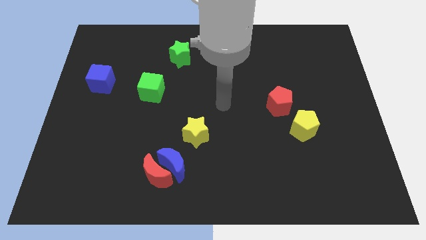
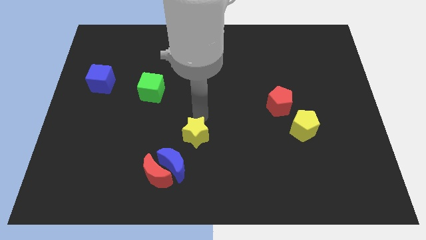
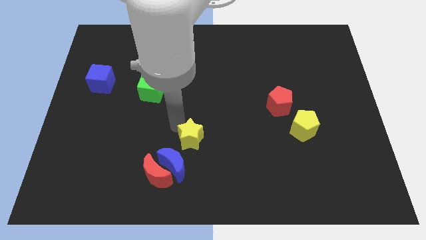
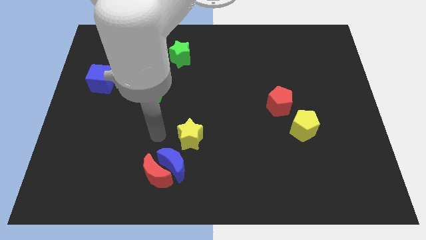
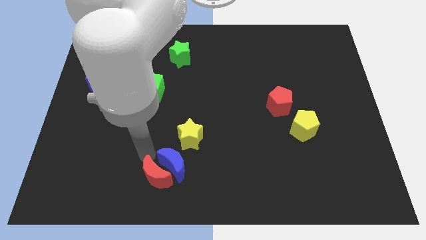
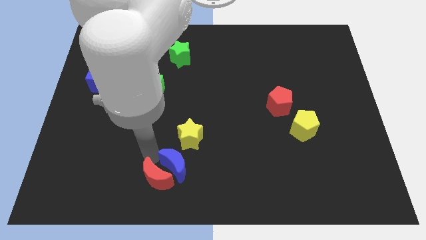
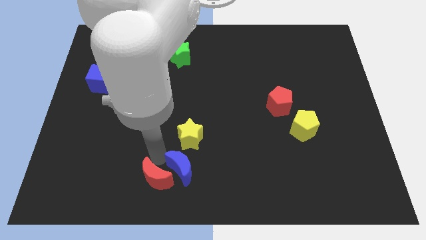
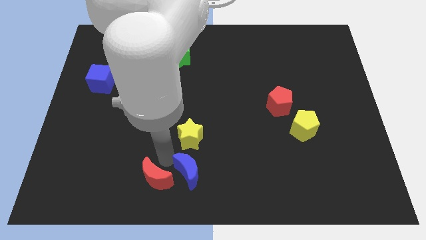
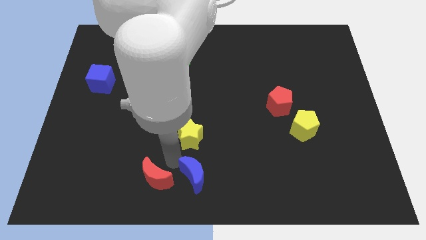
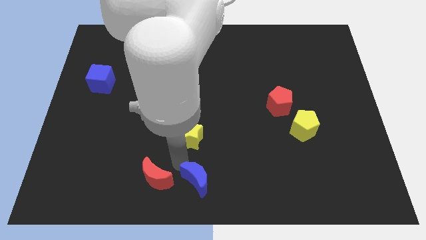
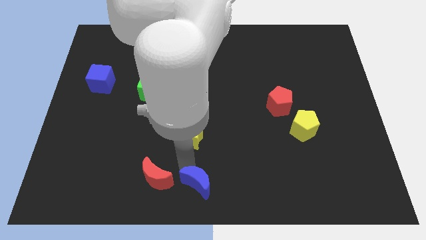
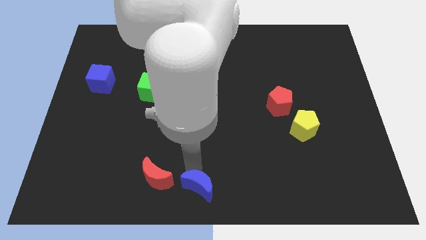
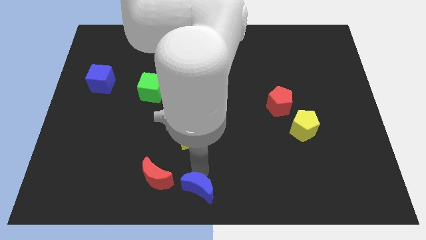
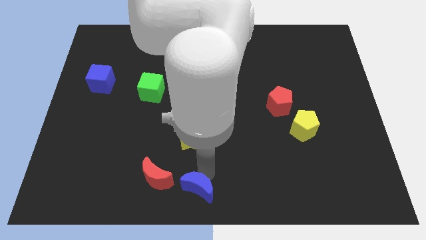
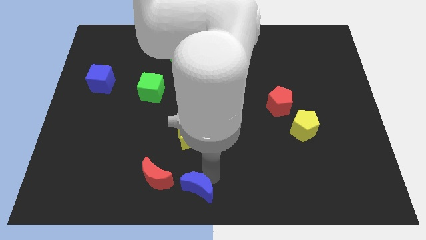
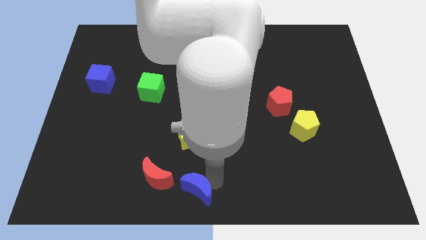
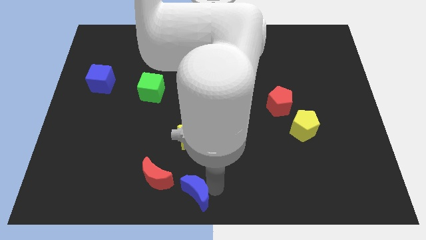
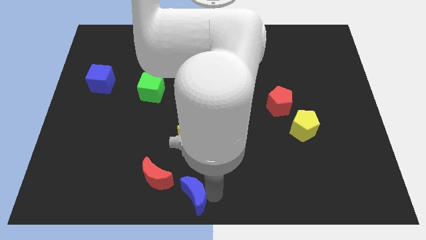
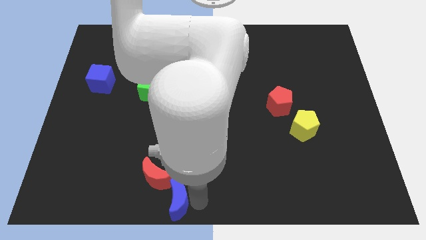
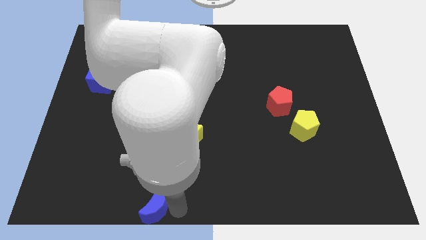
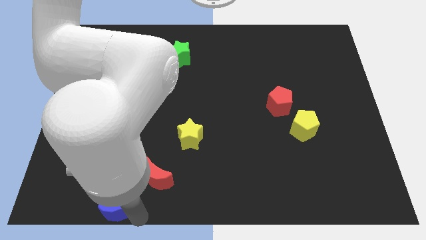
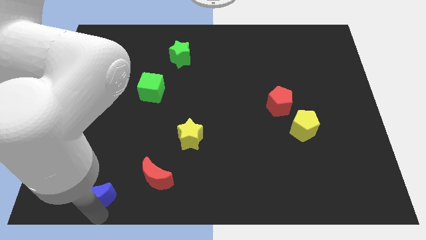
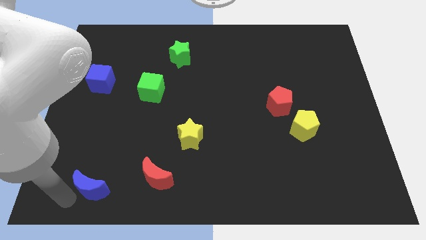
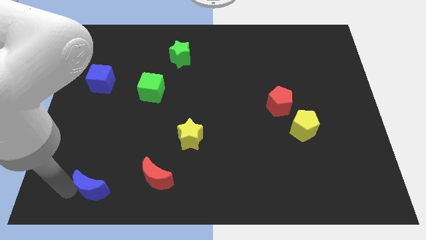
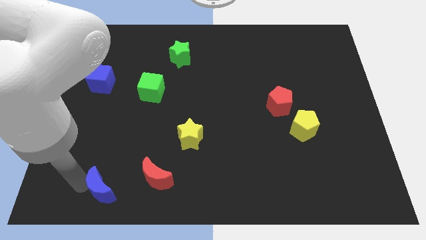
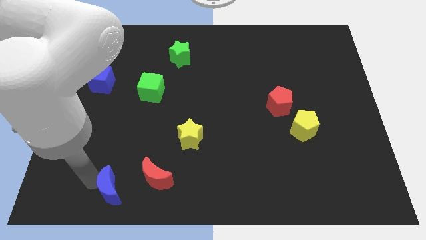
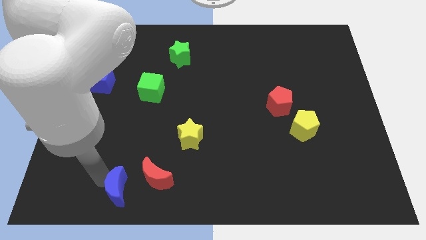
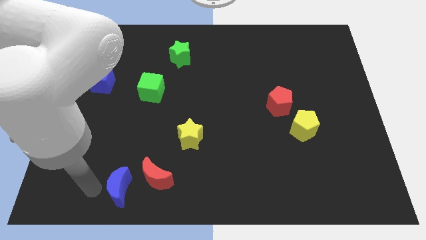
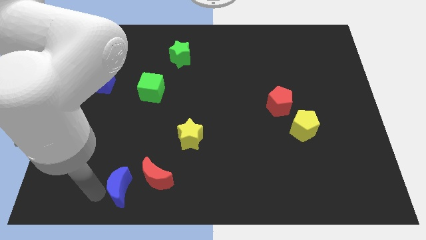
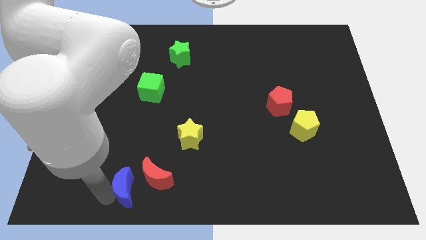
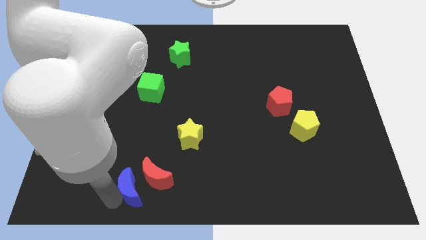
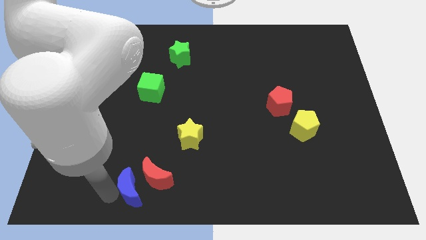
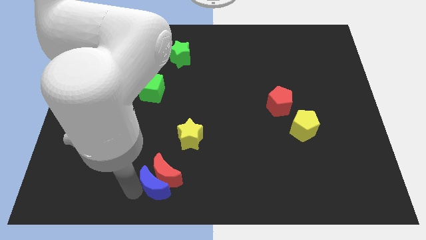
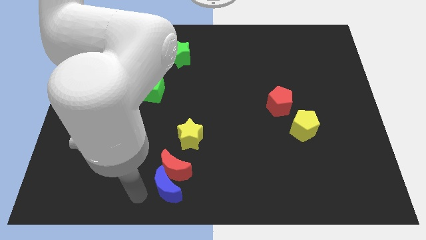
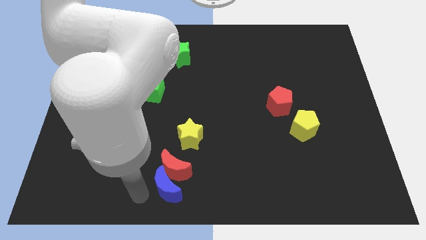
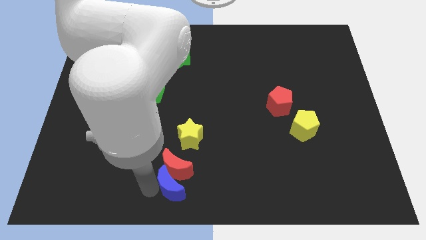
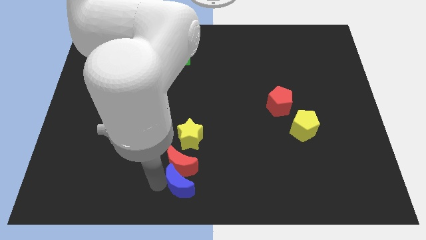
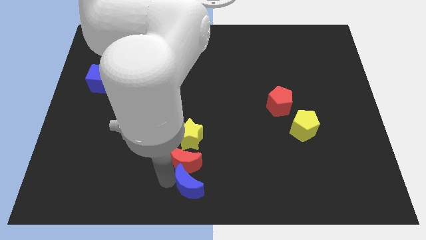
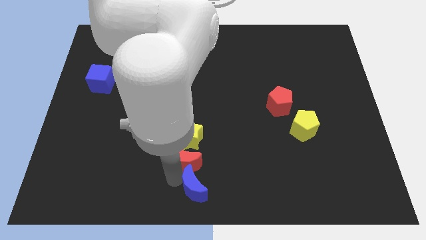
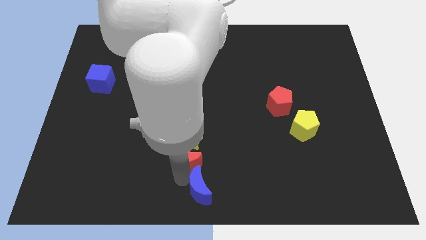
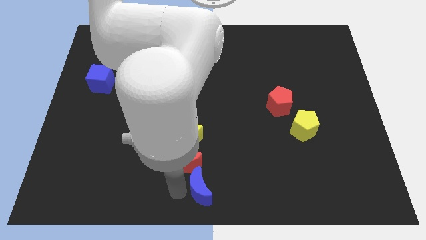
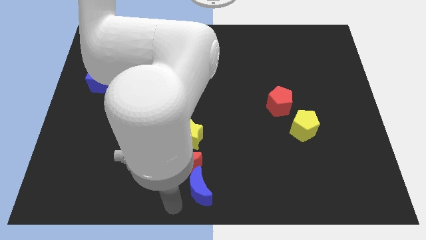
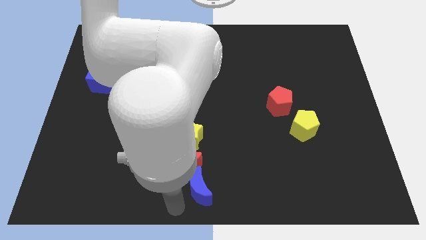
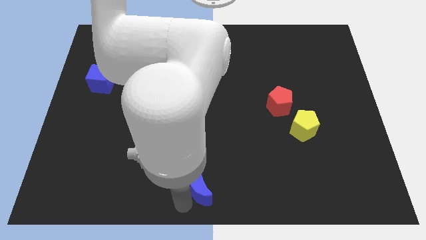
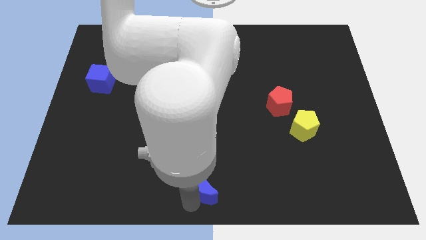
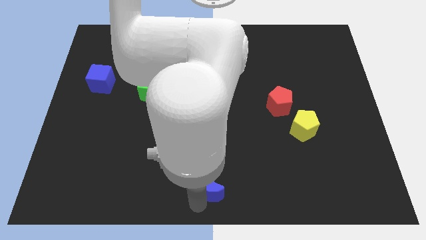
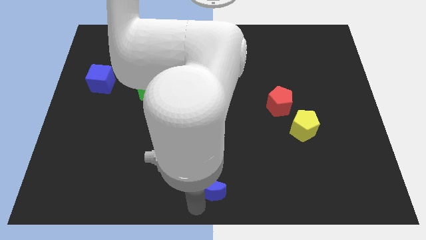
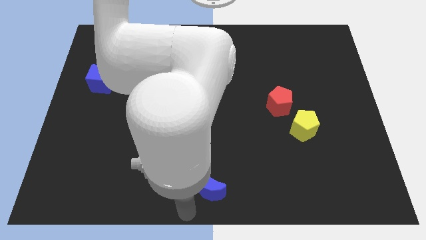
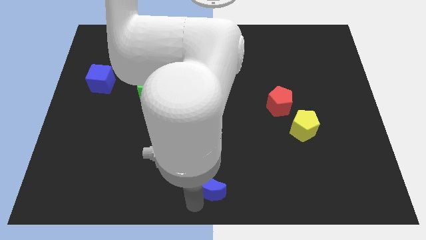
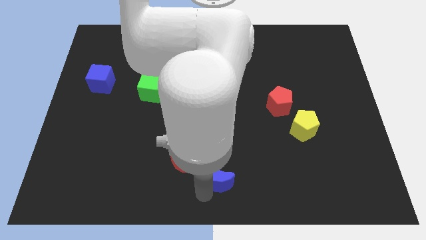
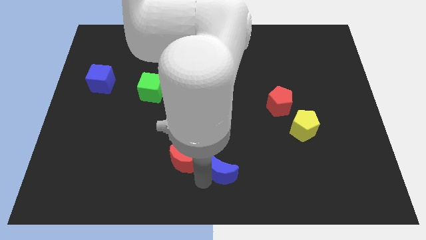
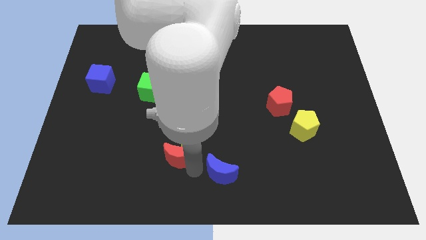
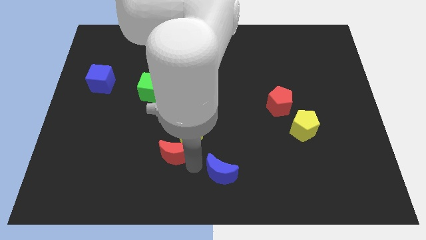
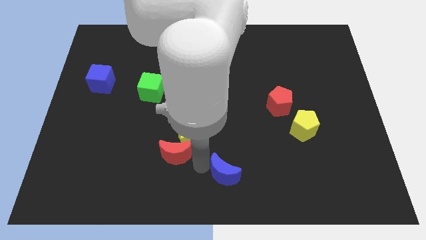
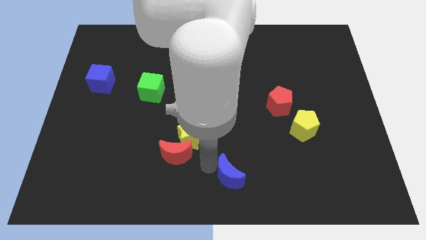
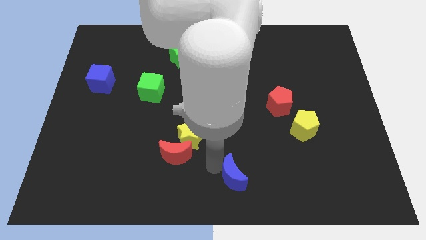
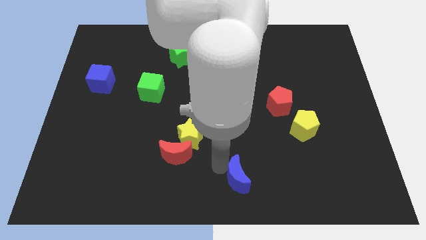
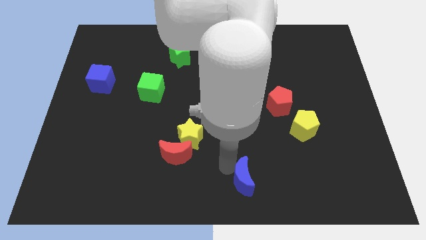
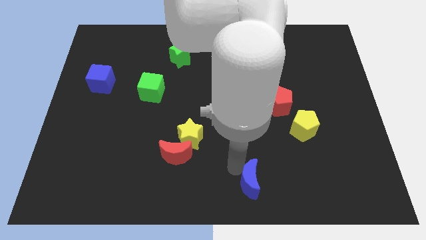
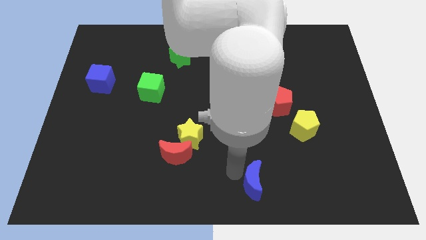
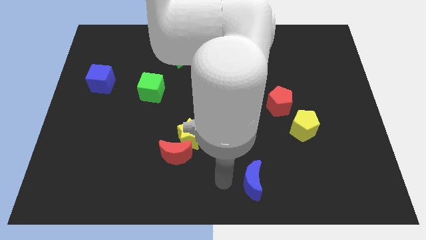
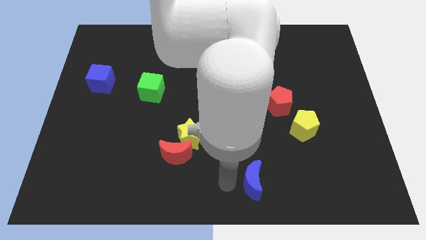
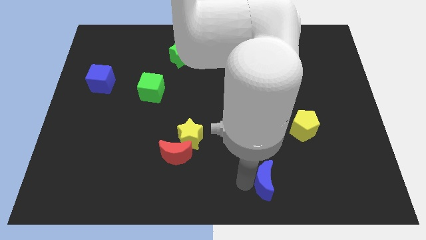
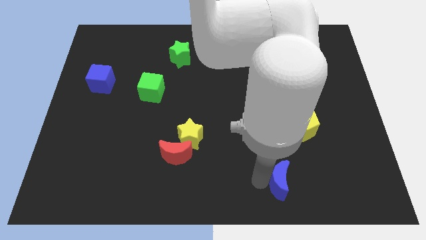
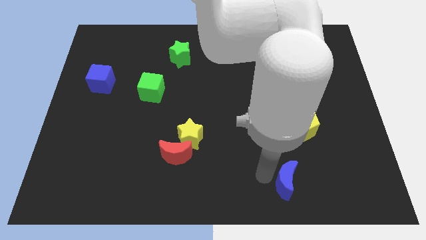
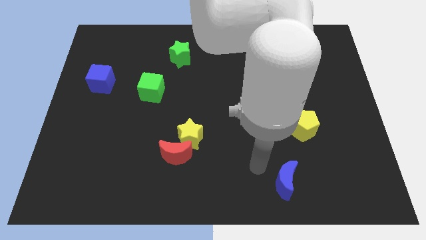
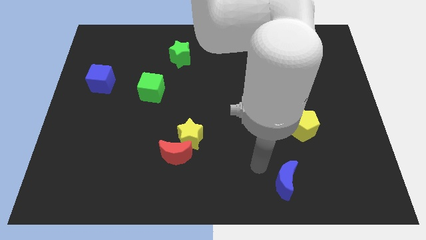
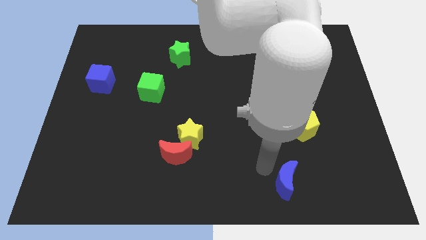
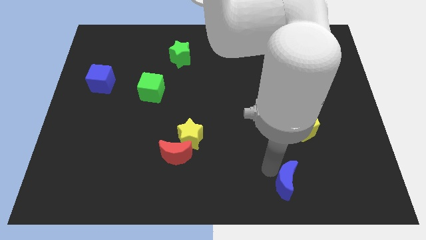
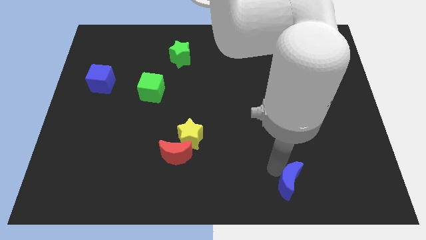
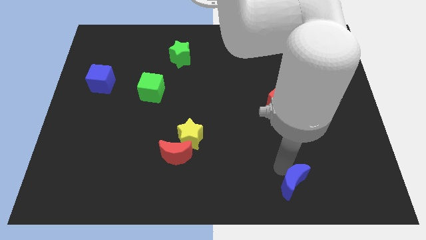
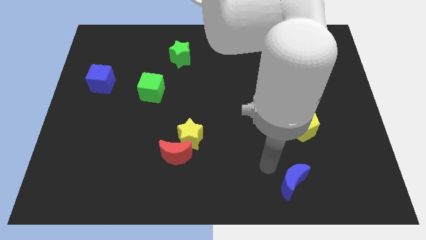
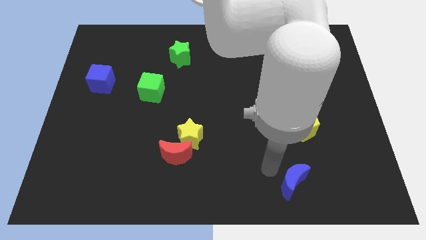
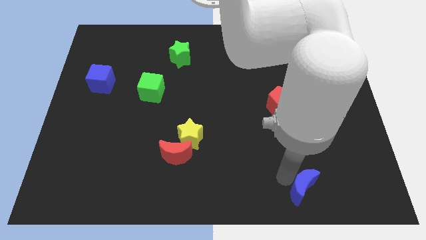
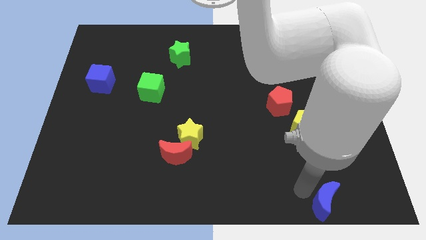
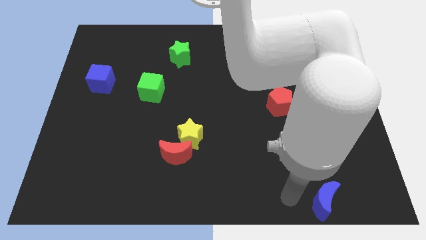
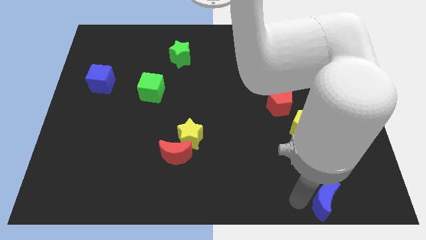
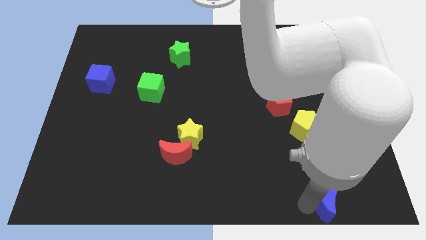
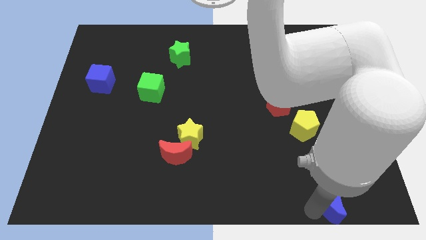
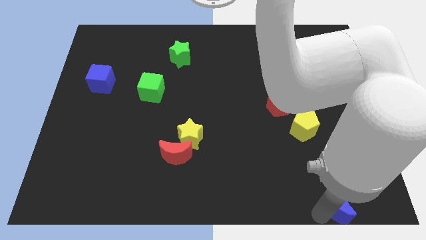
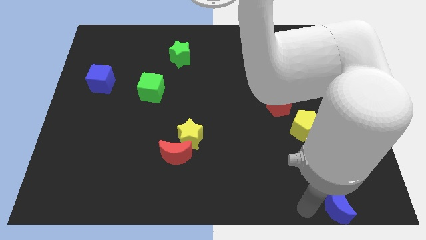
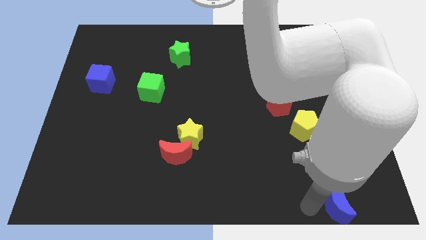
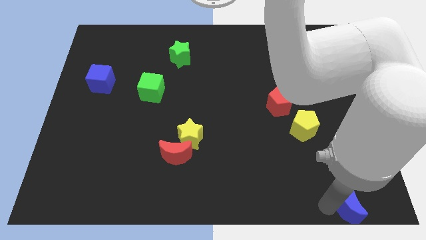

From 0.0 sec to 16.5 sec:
put the blue moon to the lower right corner
